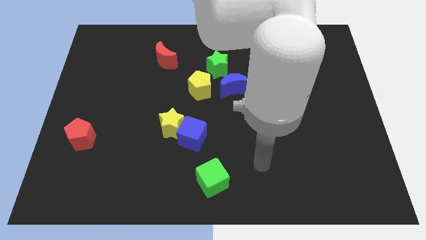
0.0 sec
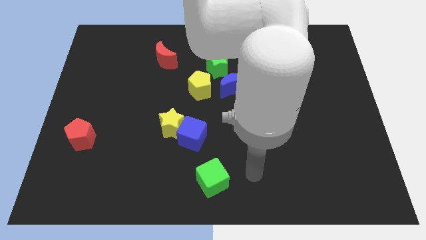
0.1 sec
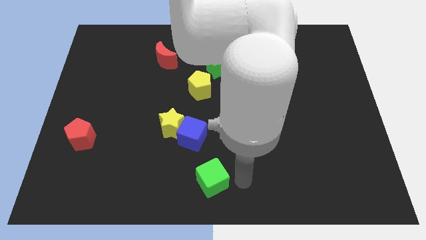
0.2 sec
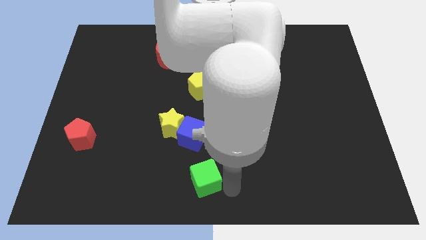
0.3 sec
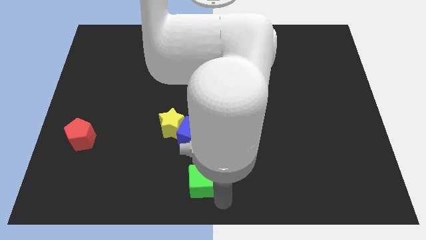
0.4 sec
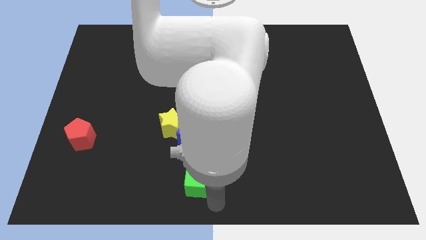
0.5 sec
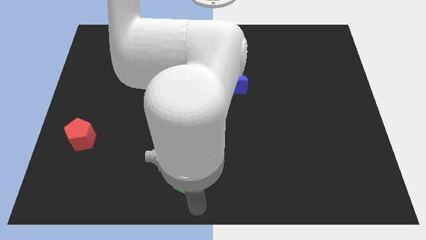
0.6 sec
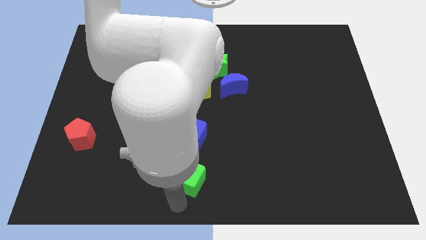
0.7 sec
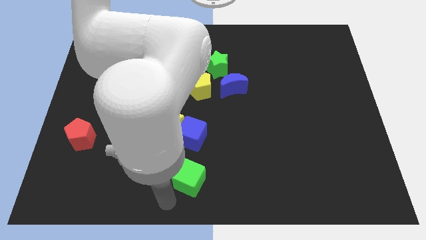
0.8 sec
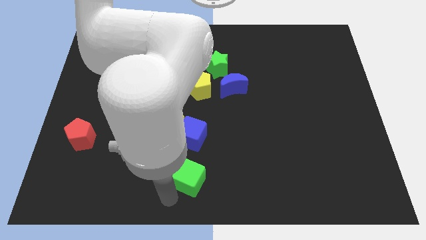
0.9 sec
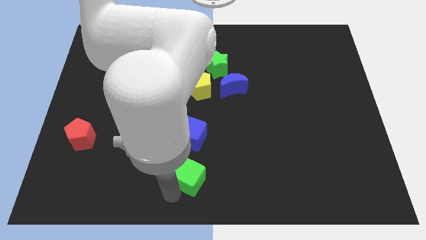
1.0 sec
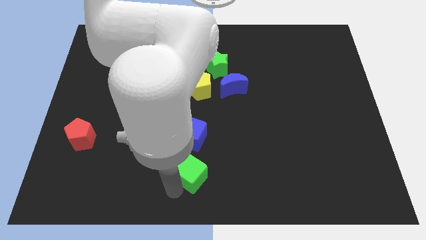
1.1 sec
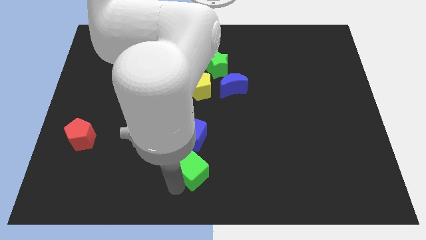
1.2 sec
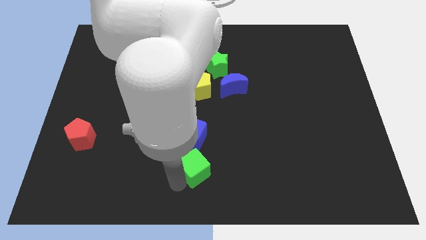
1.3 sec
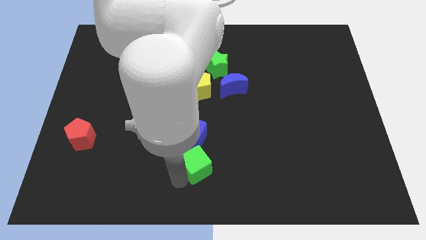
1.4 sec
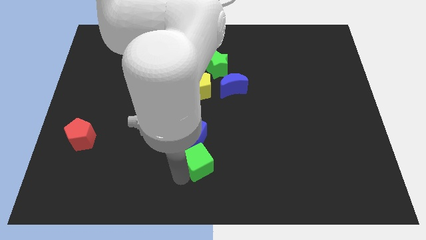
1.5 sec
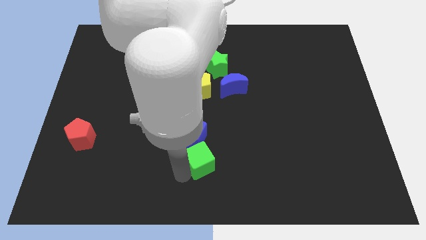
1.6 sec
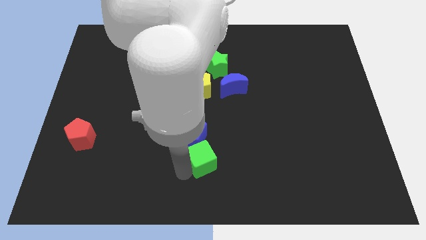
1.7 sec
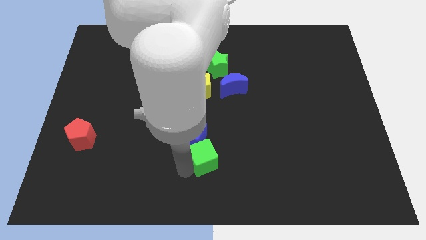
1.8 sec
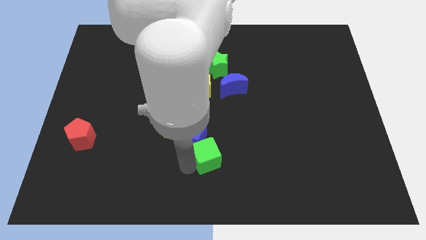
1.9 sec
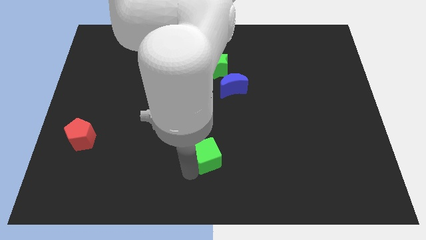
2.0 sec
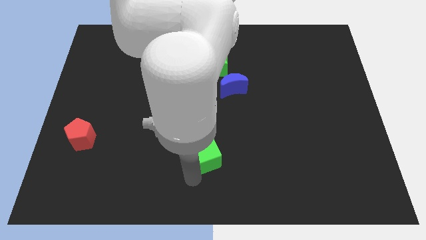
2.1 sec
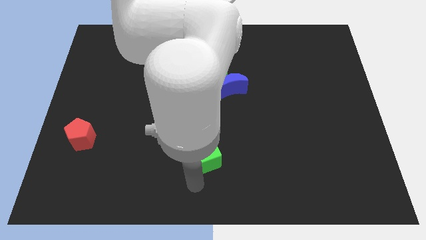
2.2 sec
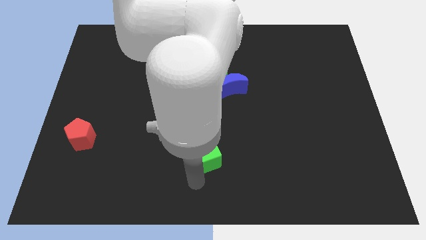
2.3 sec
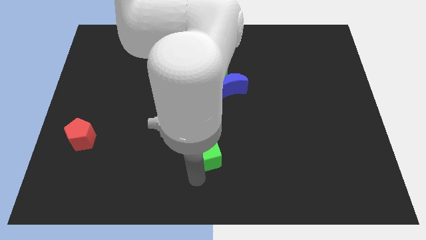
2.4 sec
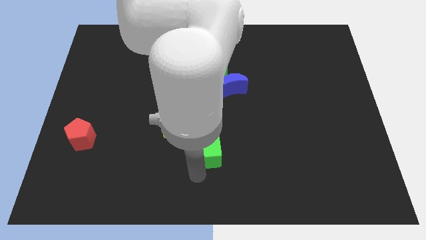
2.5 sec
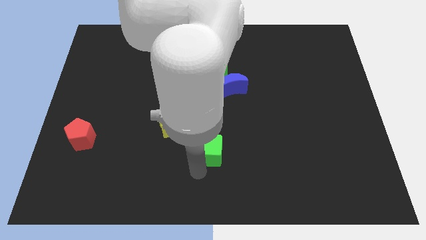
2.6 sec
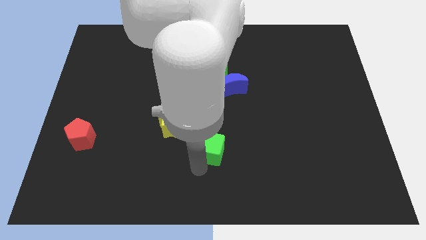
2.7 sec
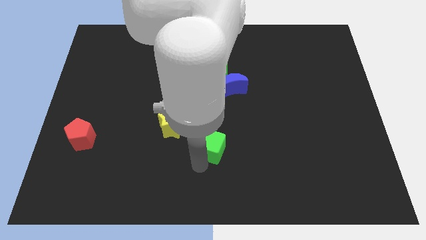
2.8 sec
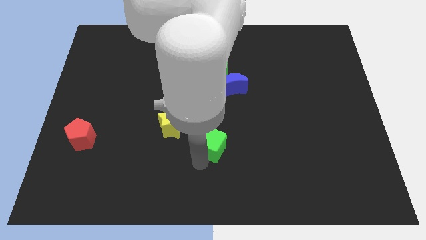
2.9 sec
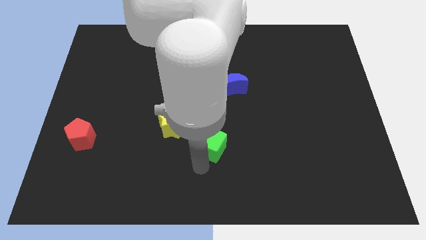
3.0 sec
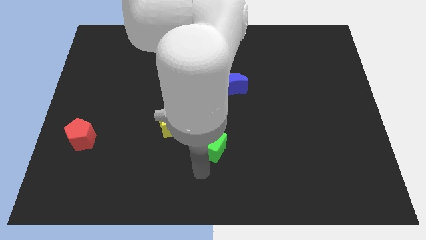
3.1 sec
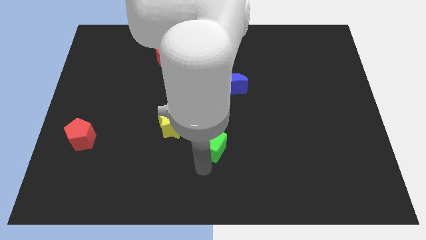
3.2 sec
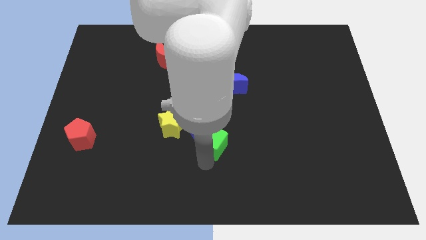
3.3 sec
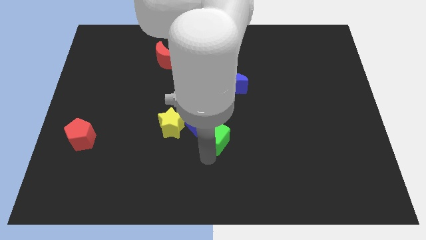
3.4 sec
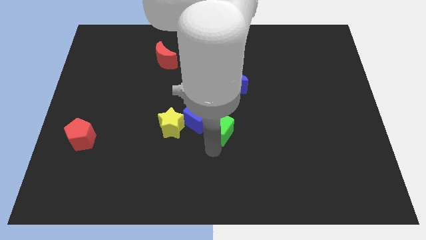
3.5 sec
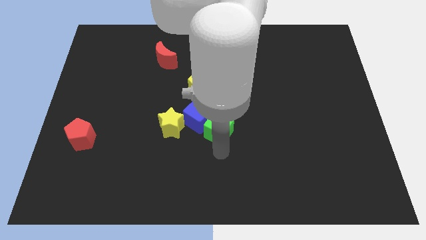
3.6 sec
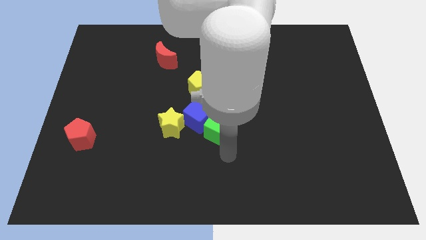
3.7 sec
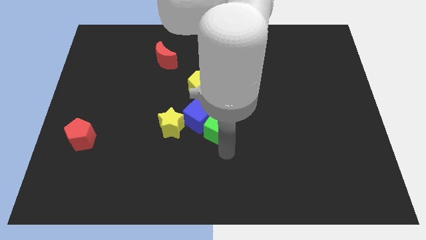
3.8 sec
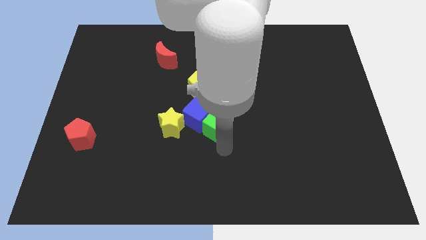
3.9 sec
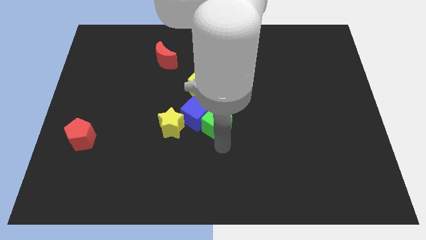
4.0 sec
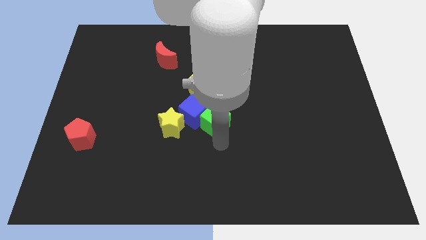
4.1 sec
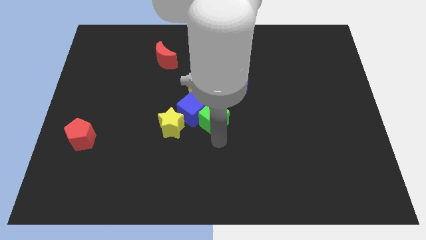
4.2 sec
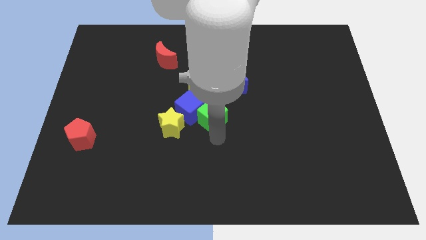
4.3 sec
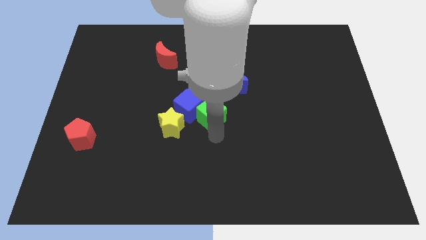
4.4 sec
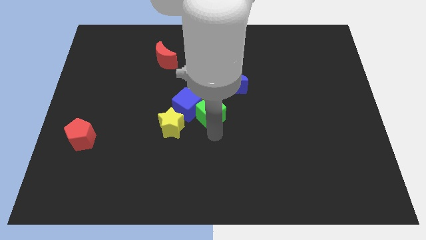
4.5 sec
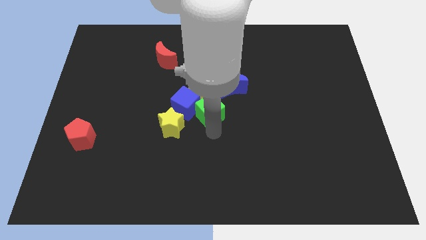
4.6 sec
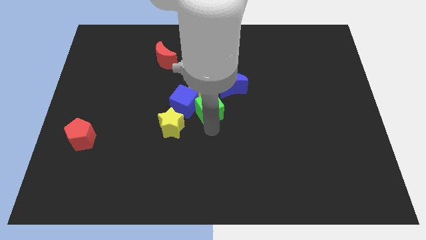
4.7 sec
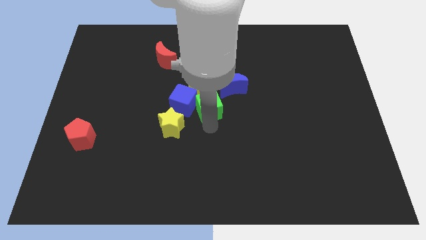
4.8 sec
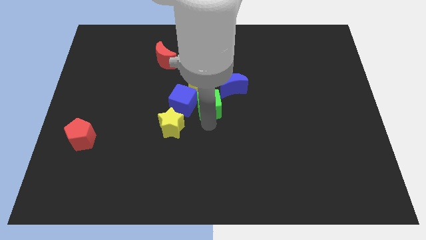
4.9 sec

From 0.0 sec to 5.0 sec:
put the green cube to the yellow pentagon

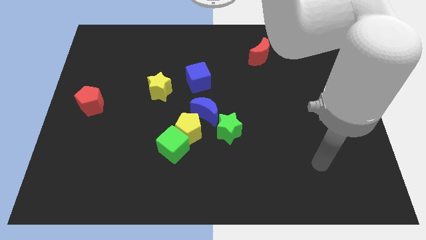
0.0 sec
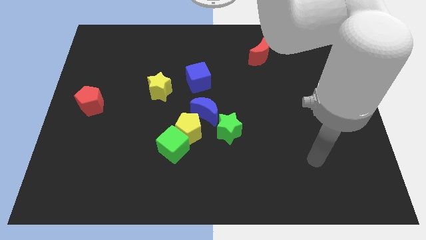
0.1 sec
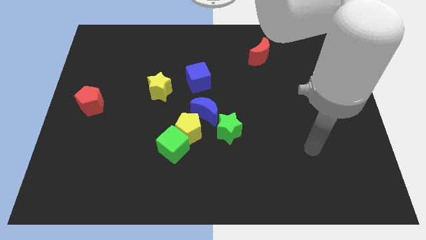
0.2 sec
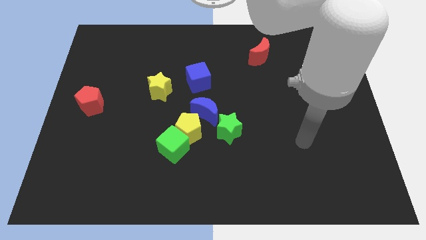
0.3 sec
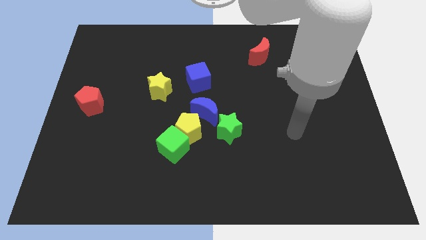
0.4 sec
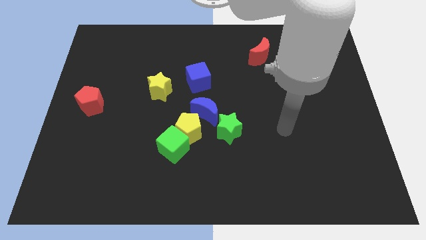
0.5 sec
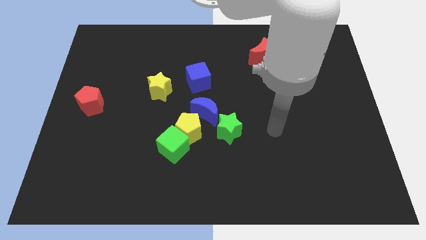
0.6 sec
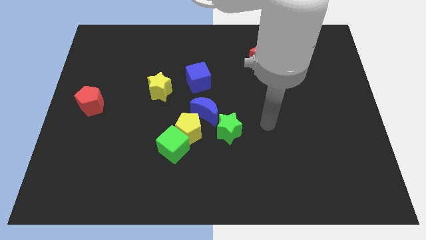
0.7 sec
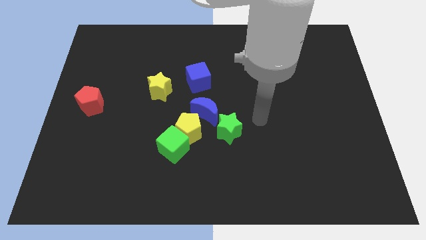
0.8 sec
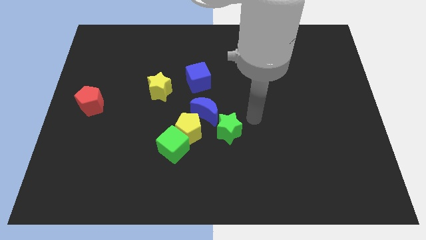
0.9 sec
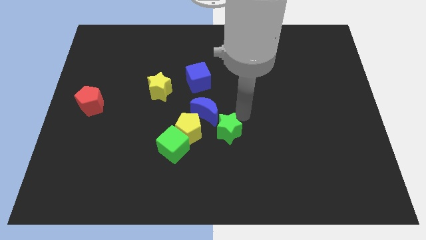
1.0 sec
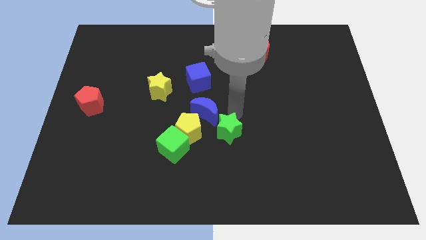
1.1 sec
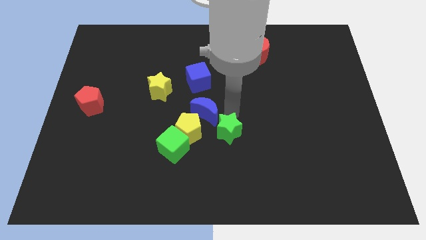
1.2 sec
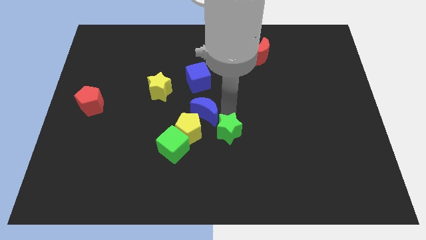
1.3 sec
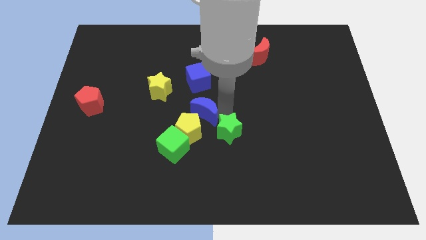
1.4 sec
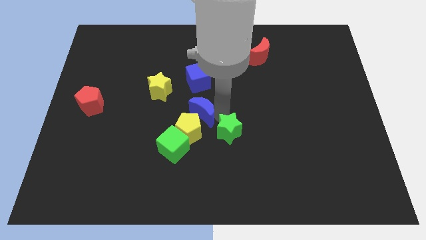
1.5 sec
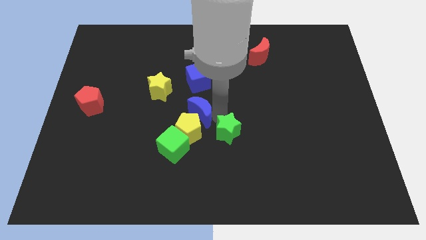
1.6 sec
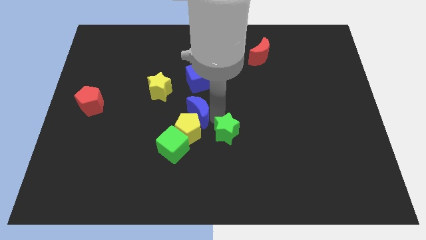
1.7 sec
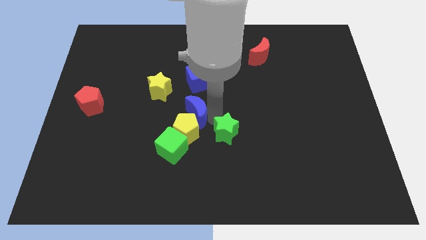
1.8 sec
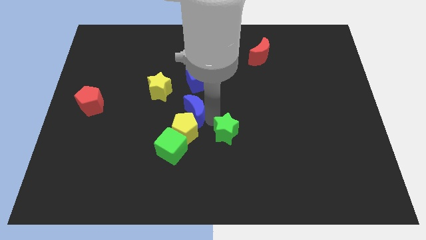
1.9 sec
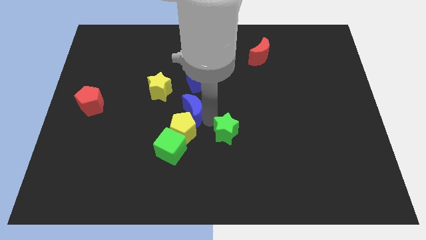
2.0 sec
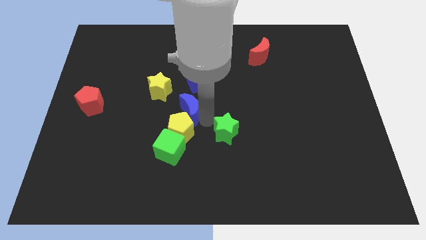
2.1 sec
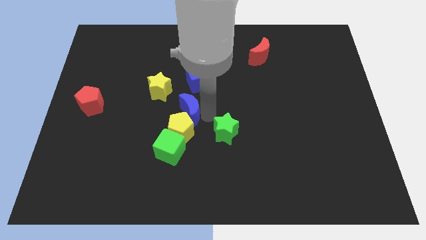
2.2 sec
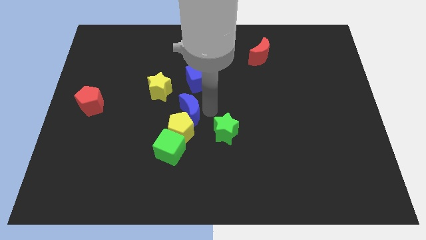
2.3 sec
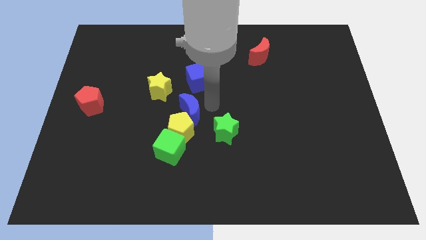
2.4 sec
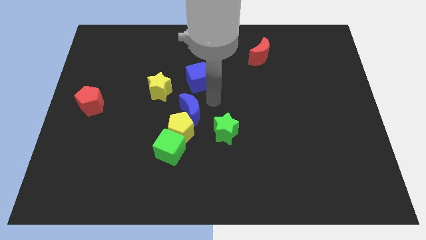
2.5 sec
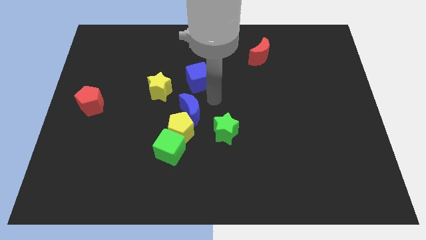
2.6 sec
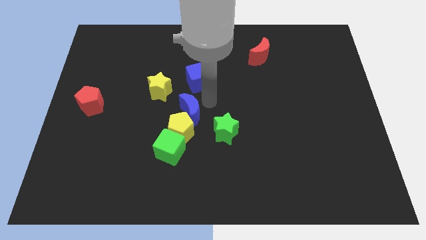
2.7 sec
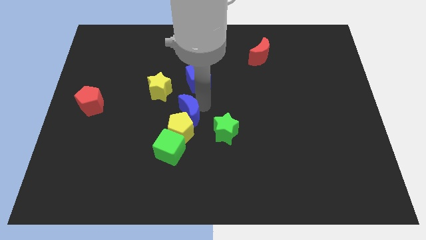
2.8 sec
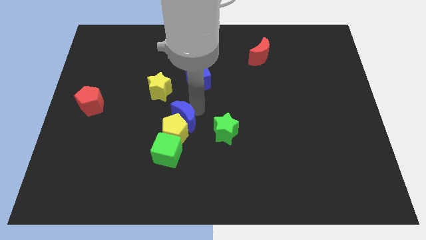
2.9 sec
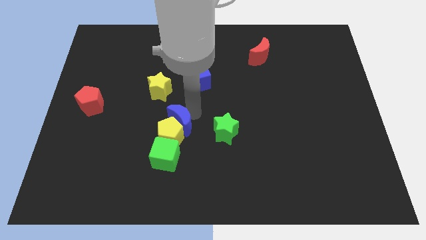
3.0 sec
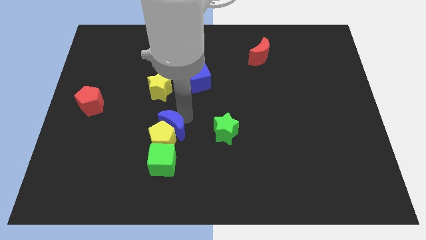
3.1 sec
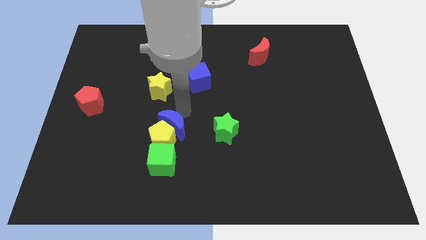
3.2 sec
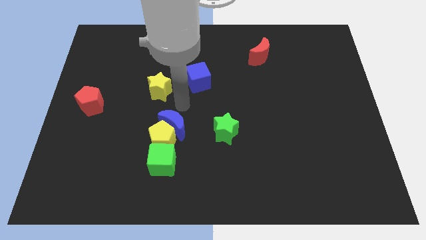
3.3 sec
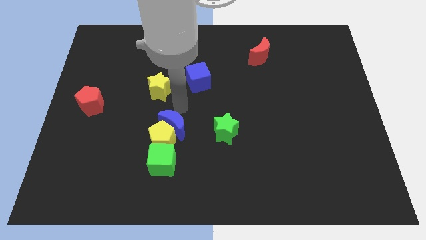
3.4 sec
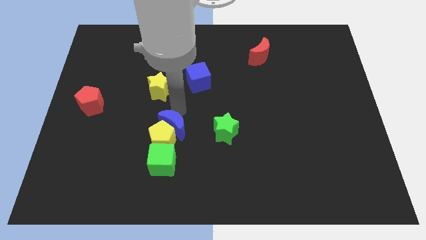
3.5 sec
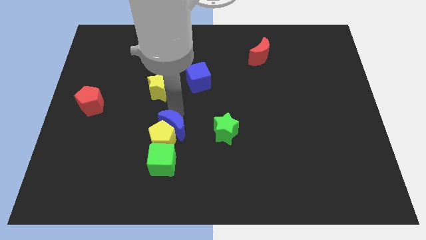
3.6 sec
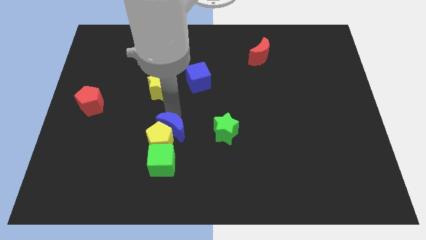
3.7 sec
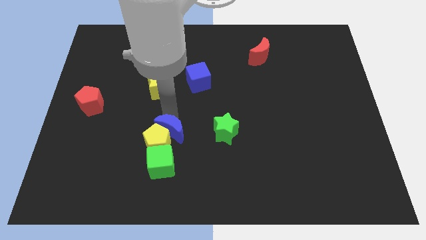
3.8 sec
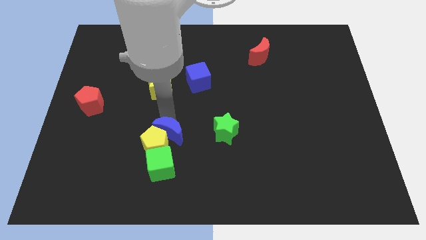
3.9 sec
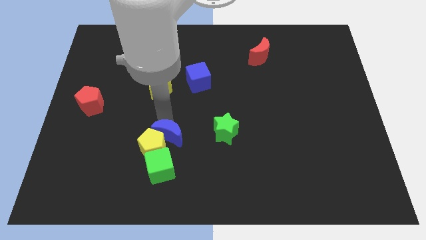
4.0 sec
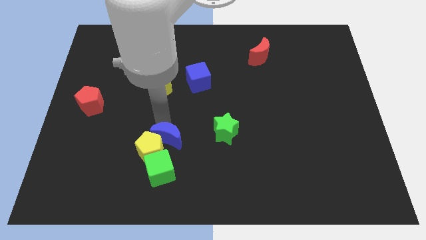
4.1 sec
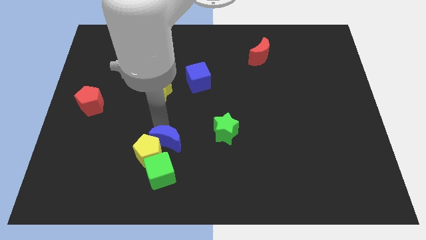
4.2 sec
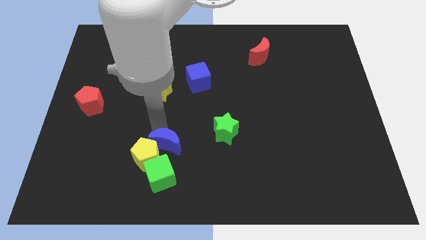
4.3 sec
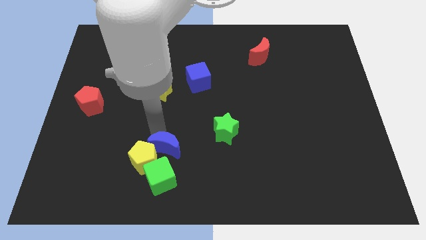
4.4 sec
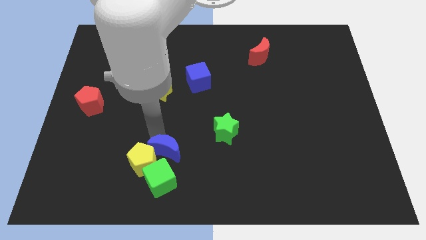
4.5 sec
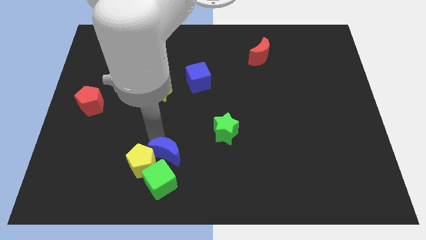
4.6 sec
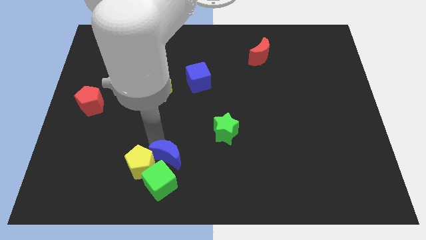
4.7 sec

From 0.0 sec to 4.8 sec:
push the blue moon to the green cube
